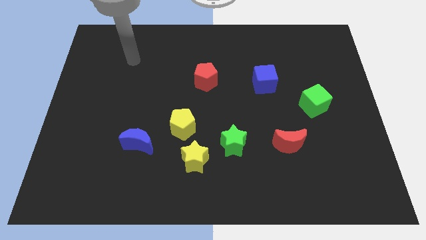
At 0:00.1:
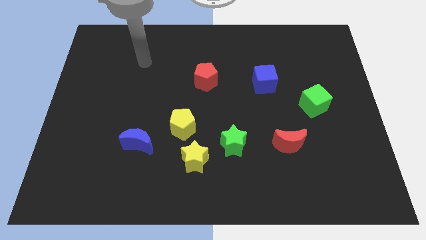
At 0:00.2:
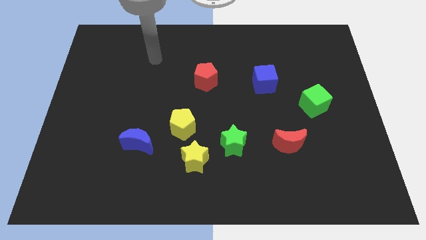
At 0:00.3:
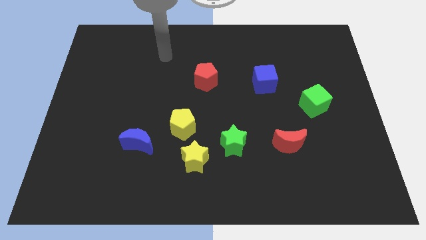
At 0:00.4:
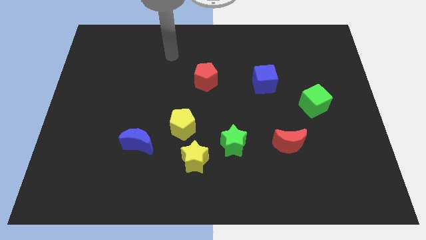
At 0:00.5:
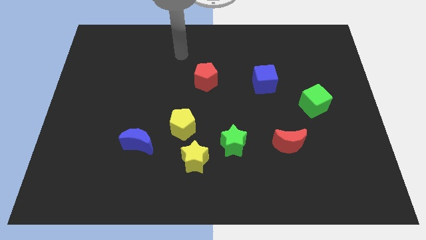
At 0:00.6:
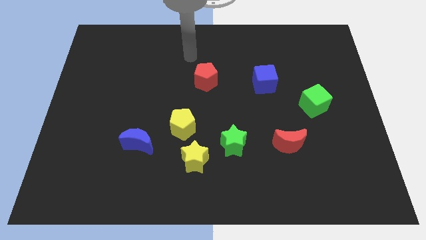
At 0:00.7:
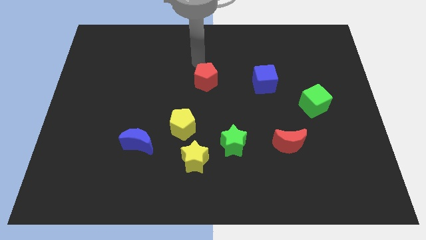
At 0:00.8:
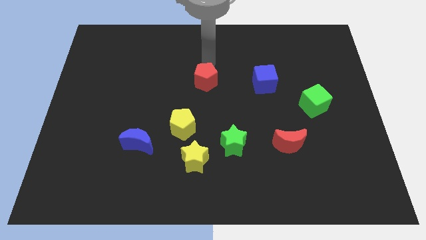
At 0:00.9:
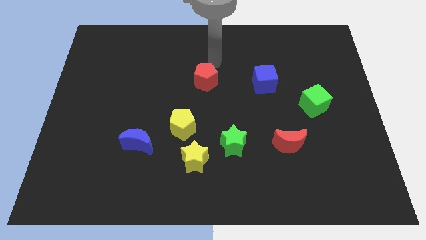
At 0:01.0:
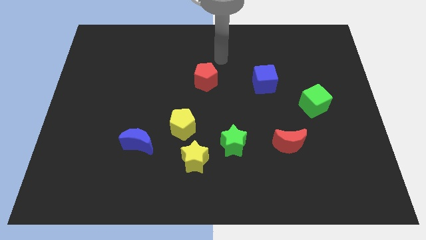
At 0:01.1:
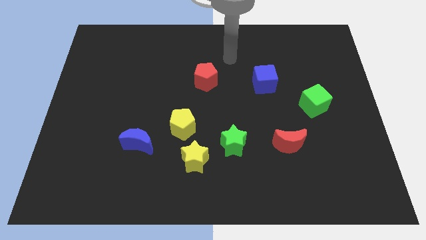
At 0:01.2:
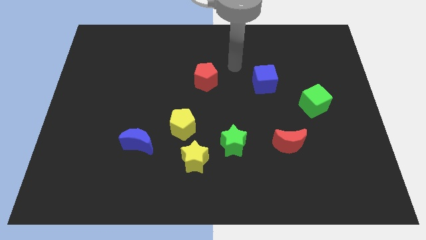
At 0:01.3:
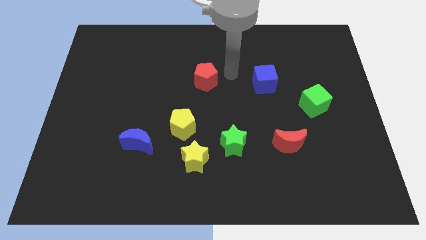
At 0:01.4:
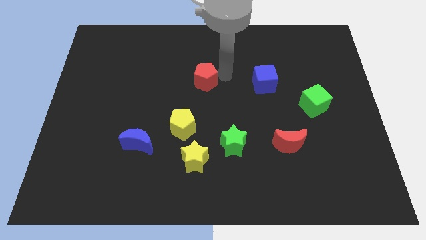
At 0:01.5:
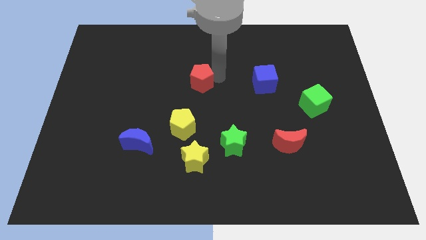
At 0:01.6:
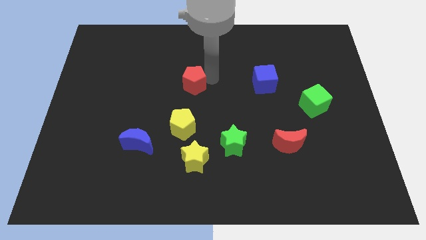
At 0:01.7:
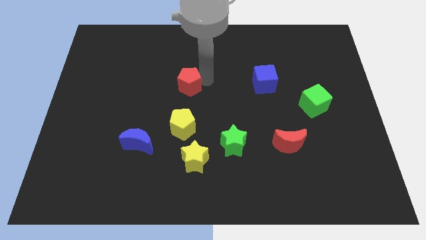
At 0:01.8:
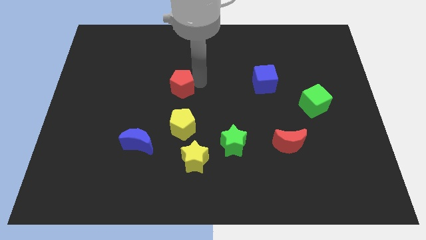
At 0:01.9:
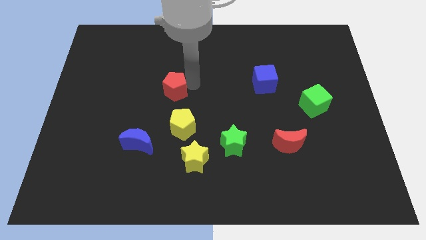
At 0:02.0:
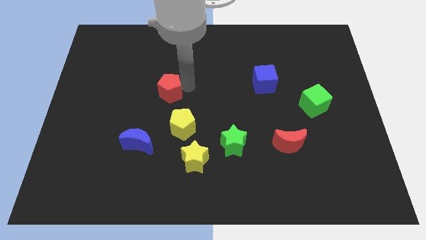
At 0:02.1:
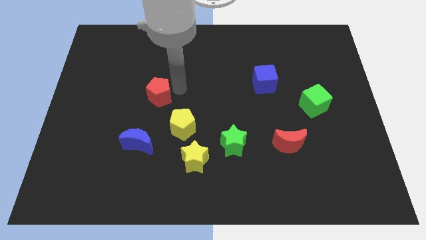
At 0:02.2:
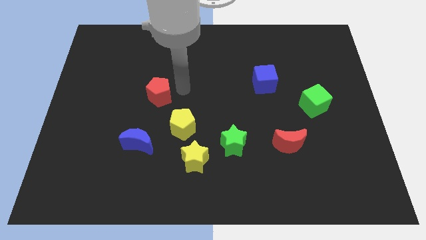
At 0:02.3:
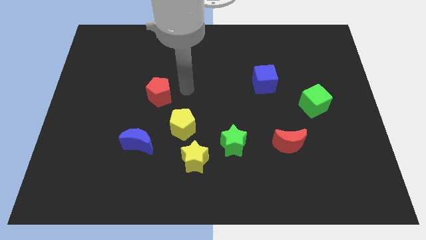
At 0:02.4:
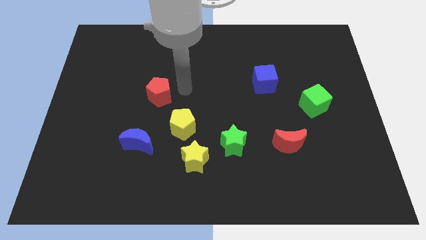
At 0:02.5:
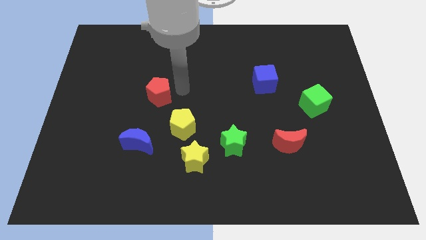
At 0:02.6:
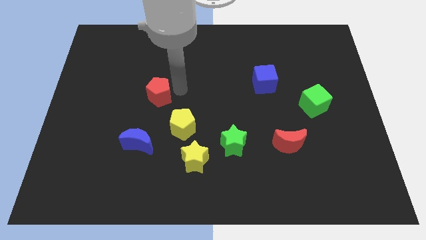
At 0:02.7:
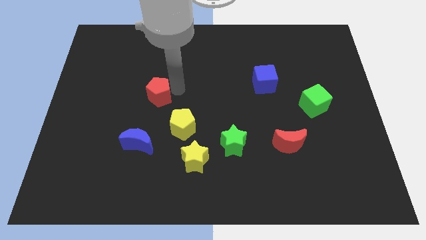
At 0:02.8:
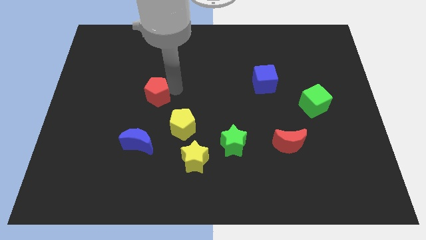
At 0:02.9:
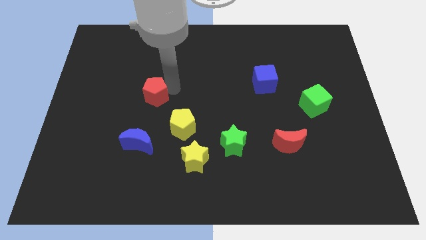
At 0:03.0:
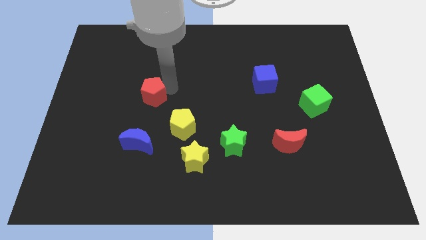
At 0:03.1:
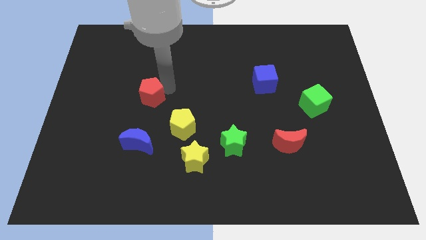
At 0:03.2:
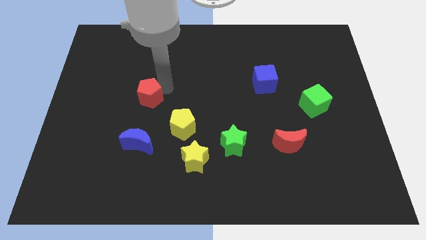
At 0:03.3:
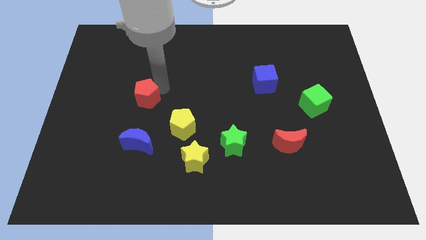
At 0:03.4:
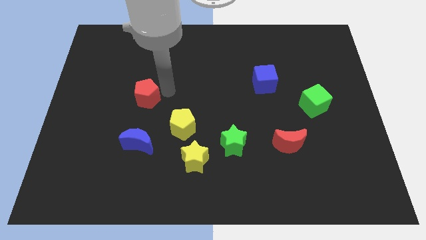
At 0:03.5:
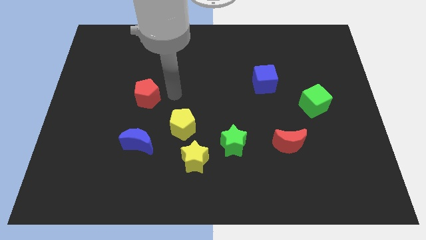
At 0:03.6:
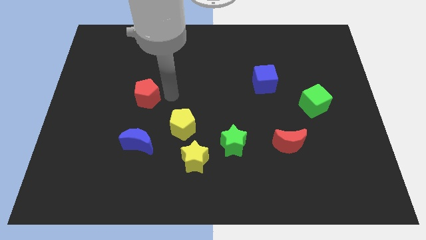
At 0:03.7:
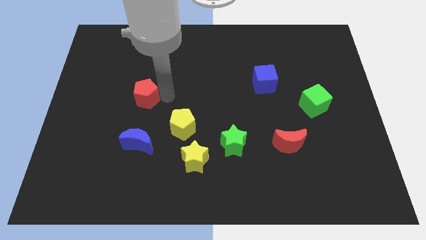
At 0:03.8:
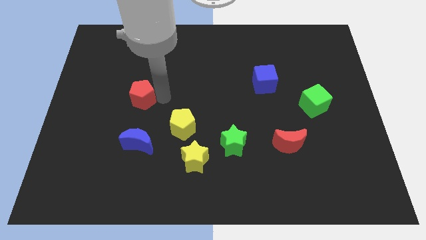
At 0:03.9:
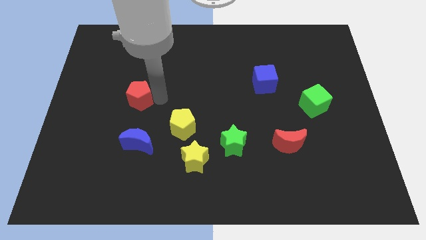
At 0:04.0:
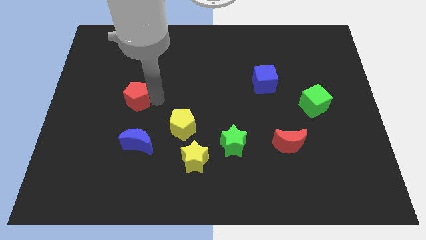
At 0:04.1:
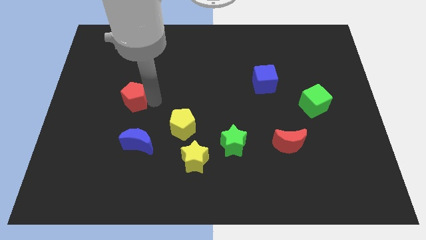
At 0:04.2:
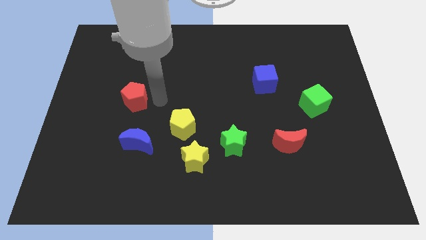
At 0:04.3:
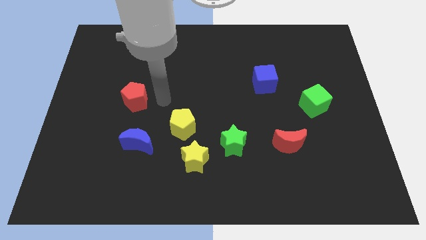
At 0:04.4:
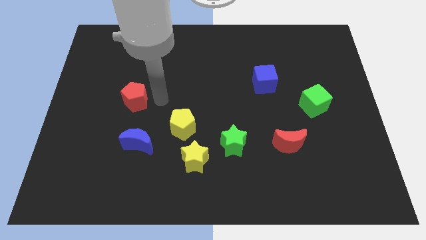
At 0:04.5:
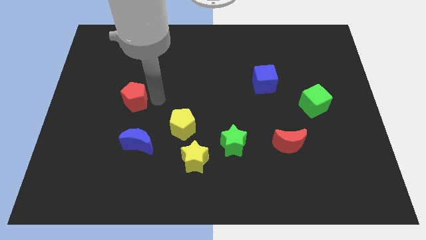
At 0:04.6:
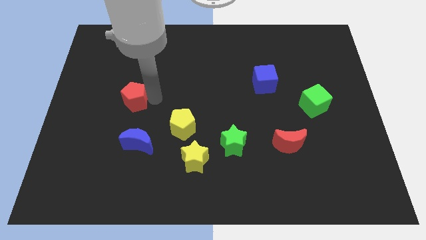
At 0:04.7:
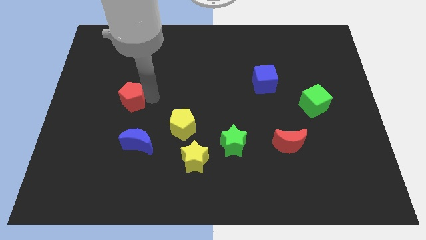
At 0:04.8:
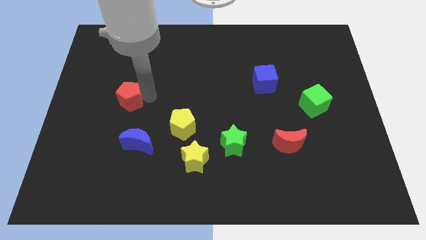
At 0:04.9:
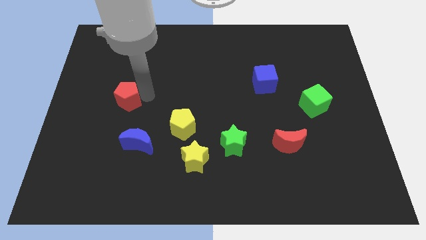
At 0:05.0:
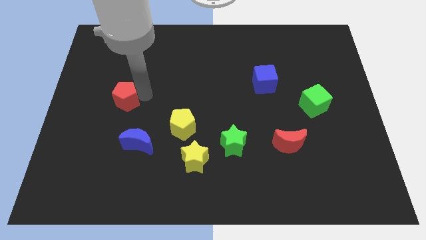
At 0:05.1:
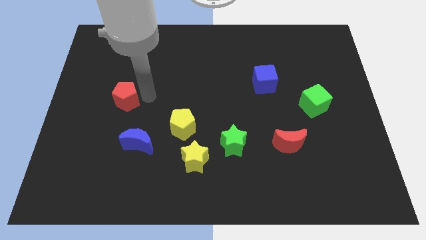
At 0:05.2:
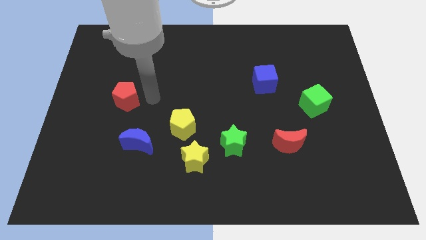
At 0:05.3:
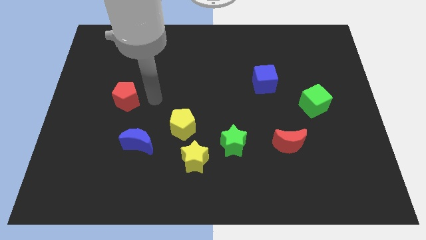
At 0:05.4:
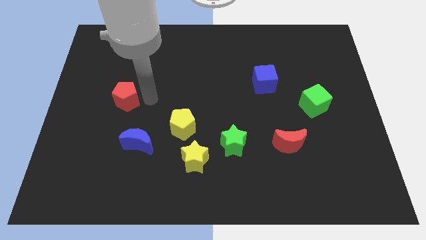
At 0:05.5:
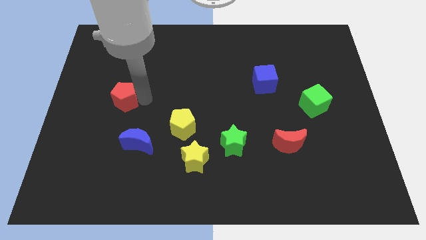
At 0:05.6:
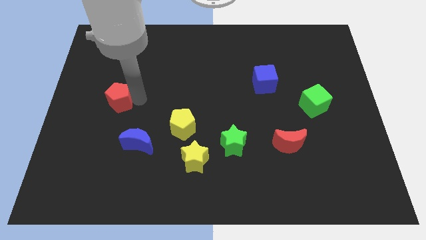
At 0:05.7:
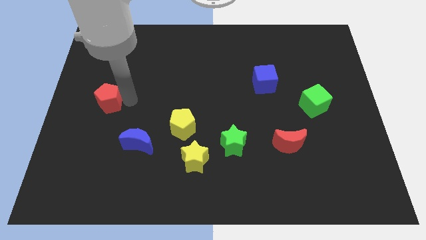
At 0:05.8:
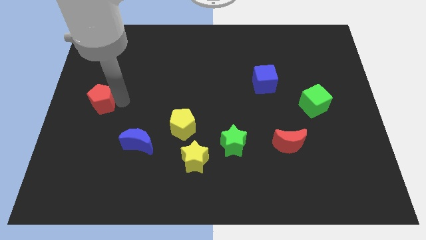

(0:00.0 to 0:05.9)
move the red pentagon to the left side

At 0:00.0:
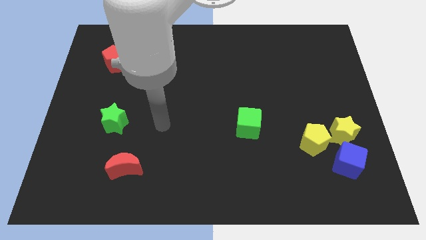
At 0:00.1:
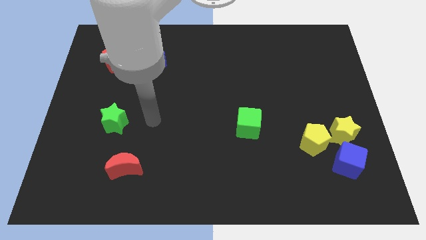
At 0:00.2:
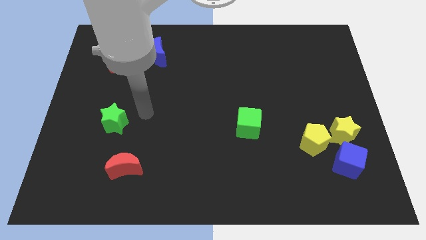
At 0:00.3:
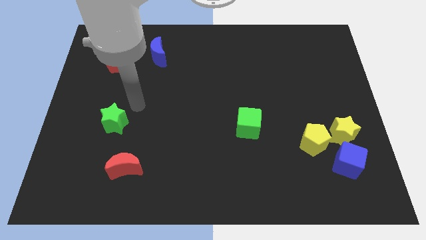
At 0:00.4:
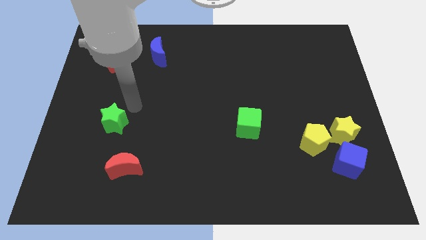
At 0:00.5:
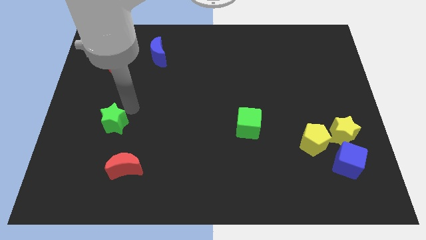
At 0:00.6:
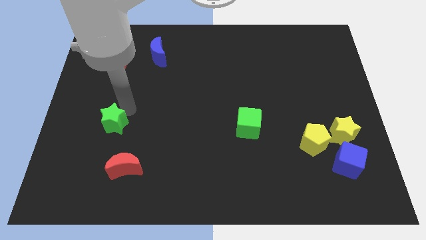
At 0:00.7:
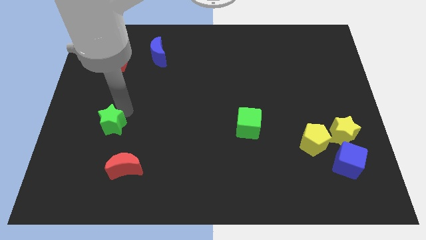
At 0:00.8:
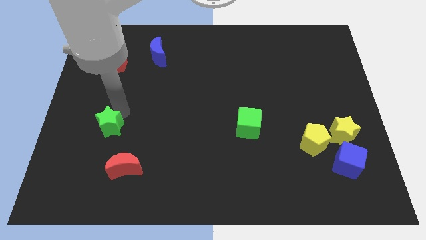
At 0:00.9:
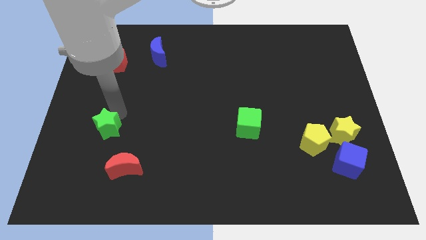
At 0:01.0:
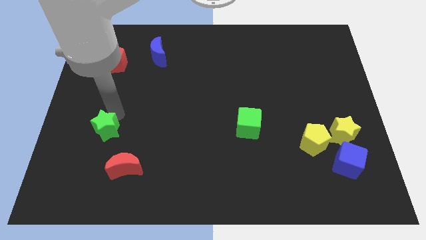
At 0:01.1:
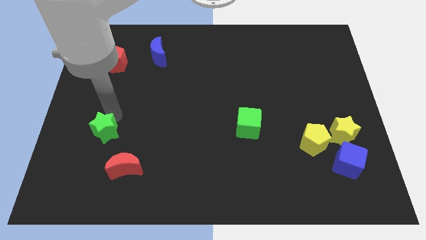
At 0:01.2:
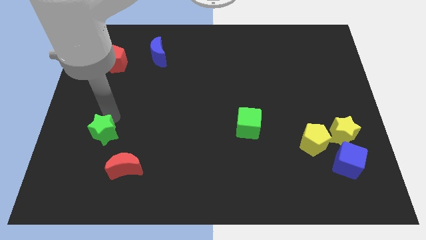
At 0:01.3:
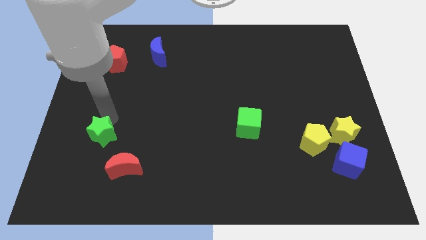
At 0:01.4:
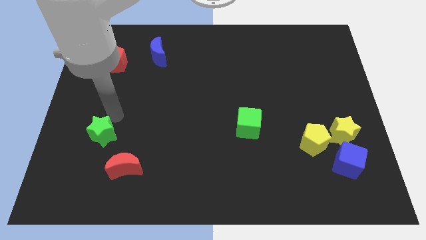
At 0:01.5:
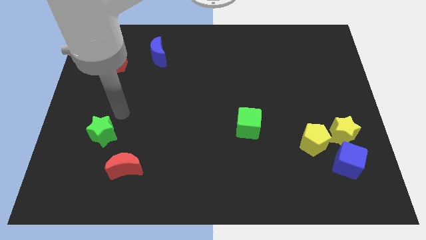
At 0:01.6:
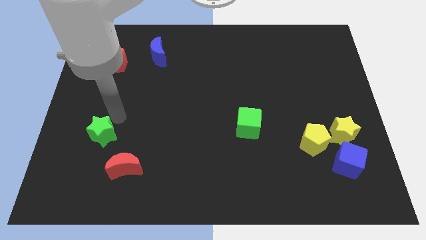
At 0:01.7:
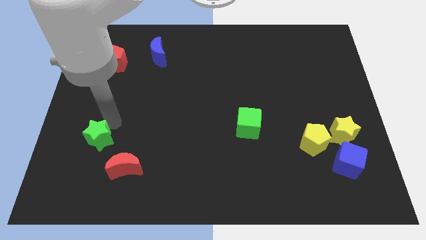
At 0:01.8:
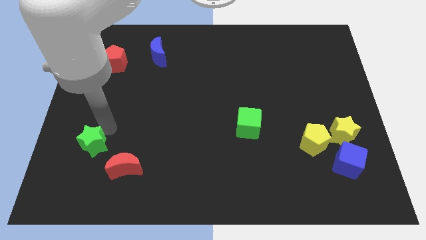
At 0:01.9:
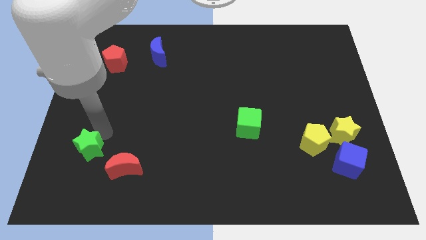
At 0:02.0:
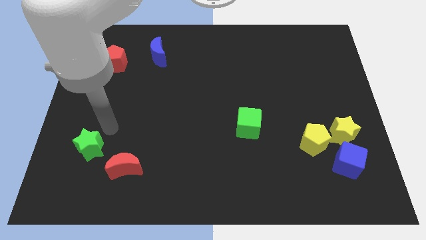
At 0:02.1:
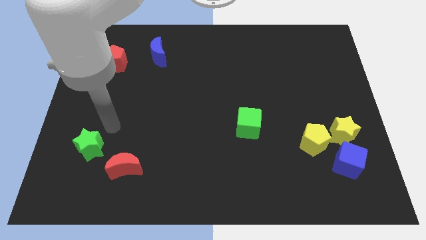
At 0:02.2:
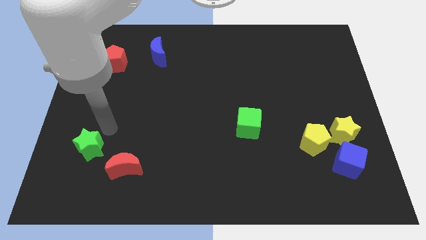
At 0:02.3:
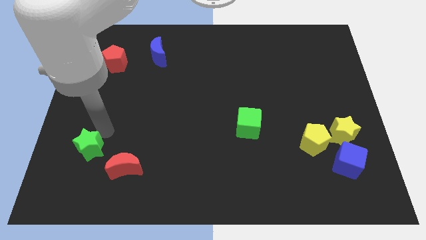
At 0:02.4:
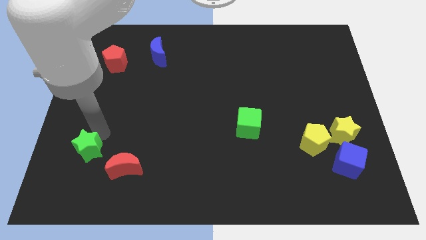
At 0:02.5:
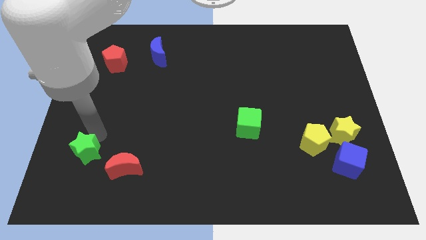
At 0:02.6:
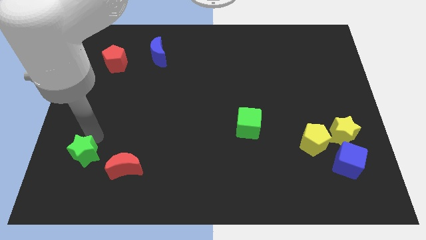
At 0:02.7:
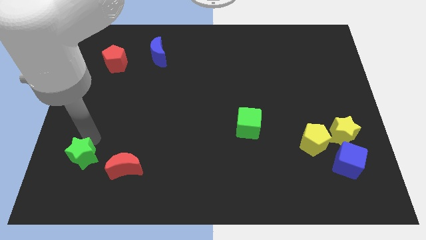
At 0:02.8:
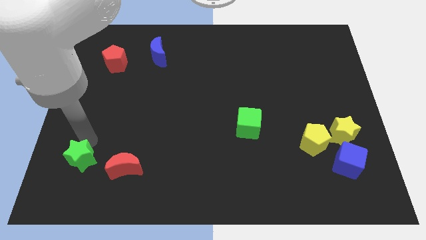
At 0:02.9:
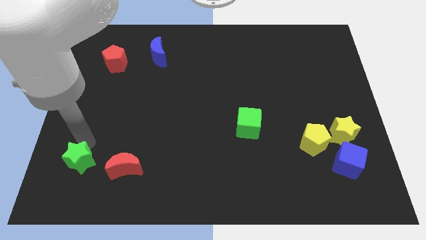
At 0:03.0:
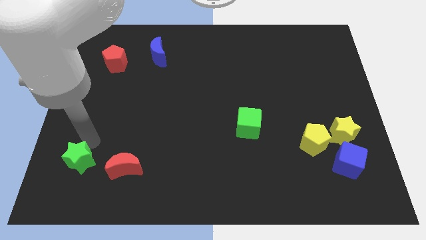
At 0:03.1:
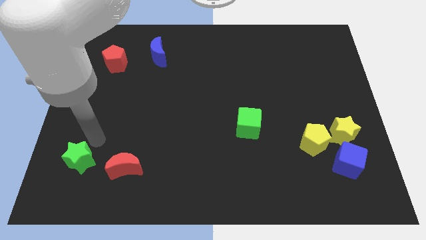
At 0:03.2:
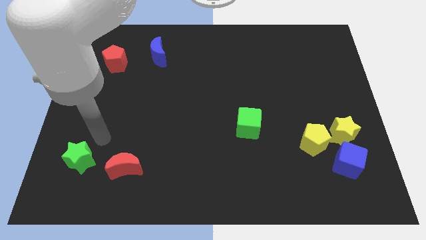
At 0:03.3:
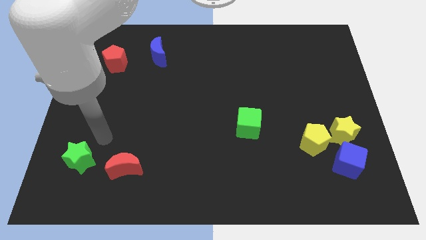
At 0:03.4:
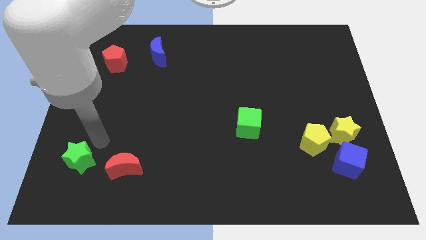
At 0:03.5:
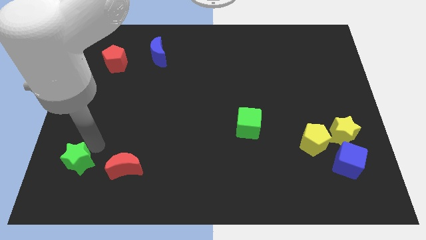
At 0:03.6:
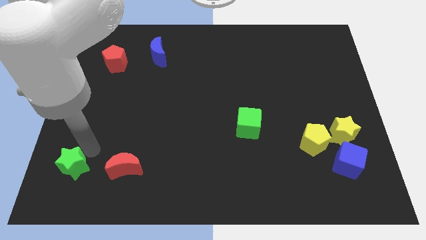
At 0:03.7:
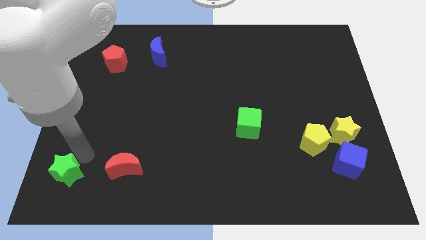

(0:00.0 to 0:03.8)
move the green star to the lower left corner
